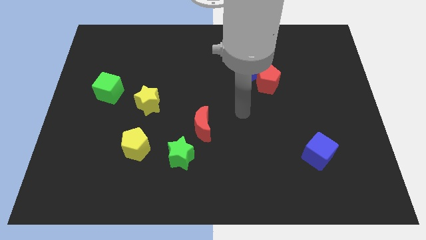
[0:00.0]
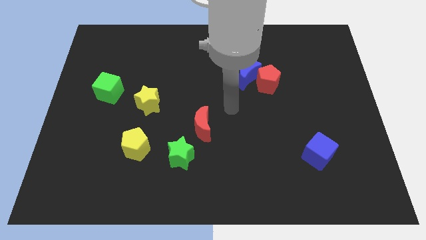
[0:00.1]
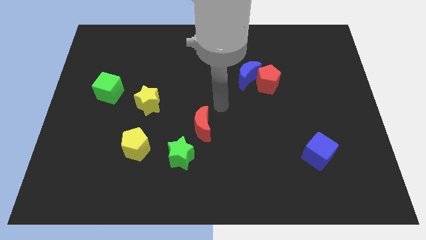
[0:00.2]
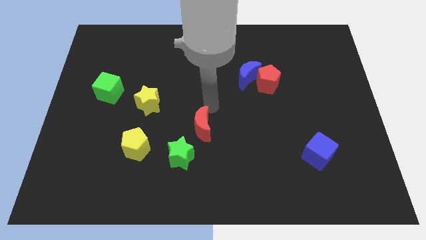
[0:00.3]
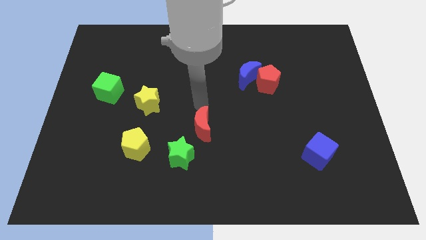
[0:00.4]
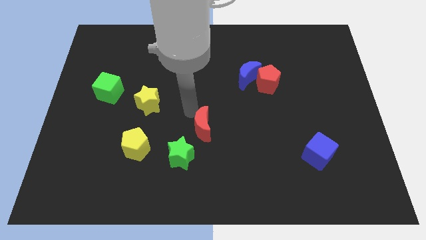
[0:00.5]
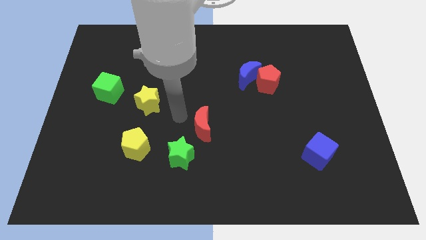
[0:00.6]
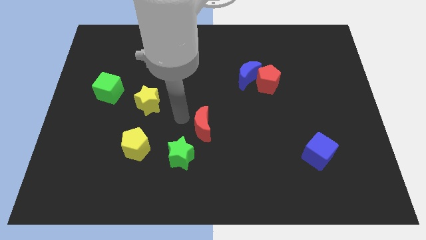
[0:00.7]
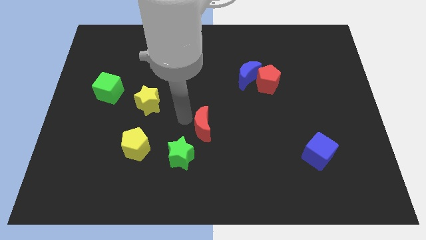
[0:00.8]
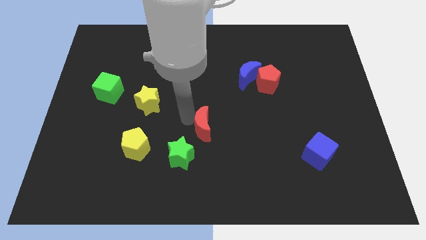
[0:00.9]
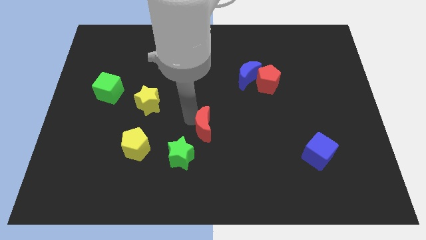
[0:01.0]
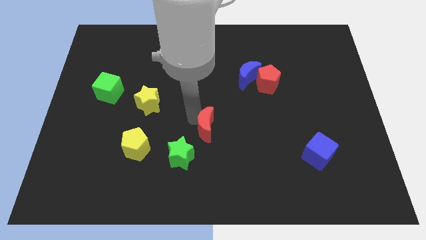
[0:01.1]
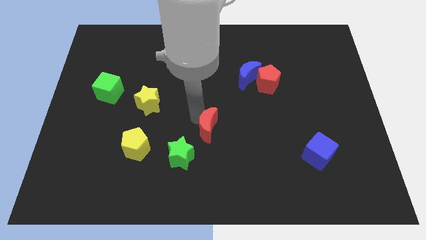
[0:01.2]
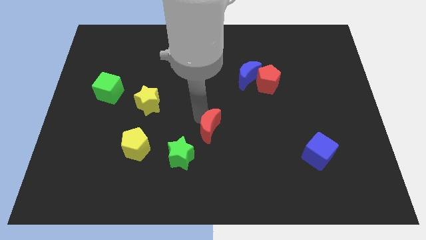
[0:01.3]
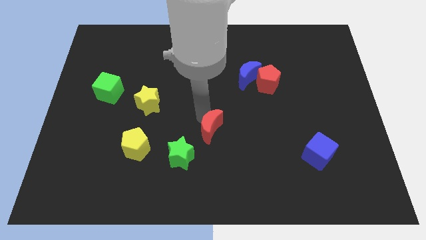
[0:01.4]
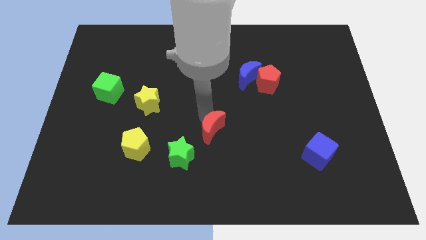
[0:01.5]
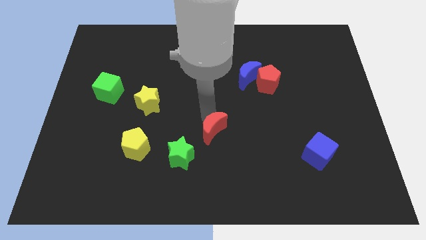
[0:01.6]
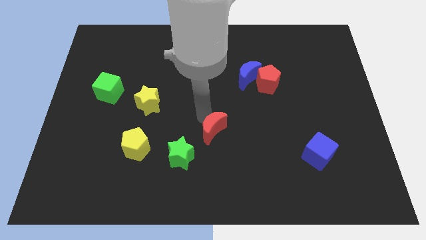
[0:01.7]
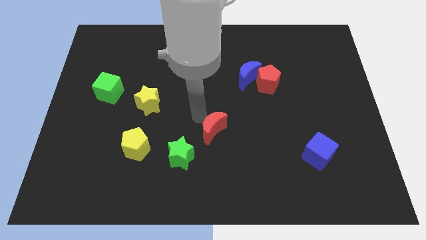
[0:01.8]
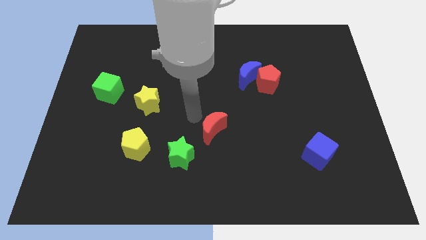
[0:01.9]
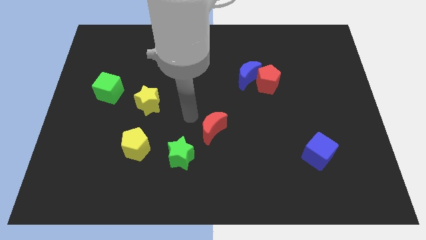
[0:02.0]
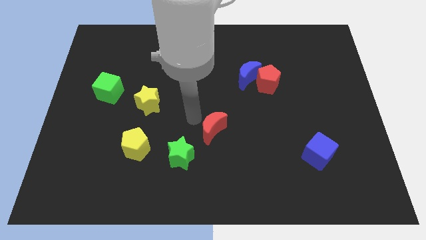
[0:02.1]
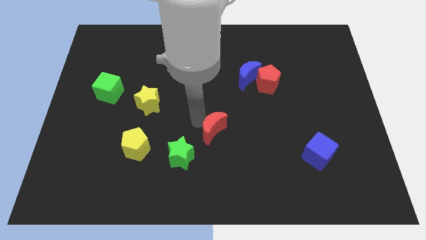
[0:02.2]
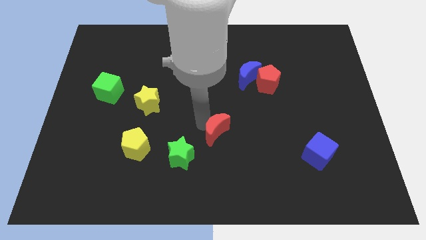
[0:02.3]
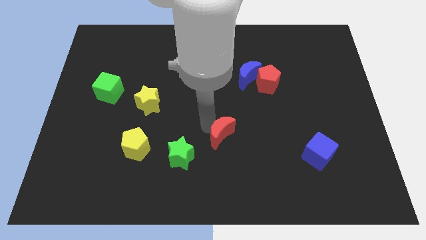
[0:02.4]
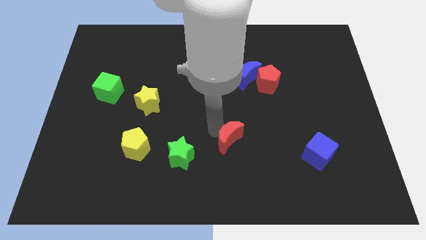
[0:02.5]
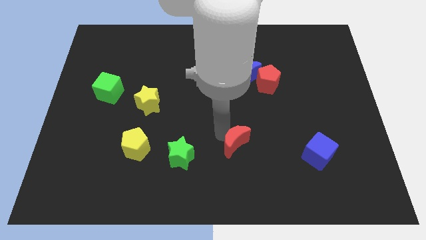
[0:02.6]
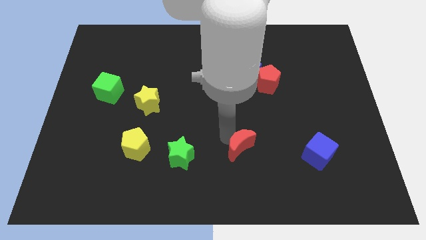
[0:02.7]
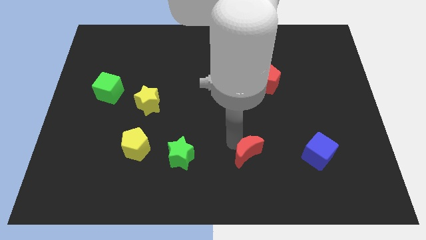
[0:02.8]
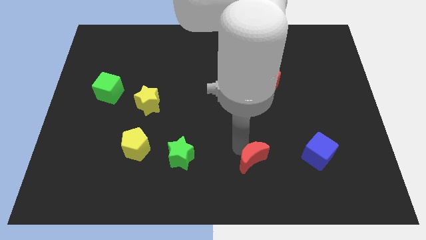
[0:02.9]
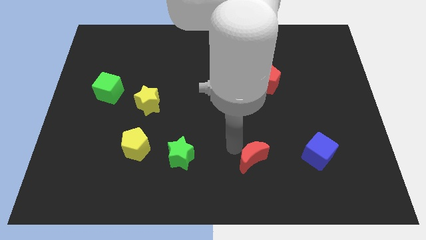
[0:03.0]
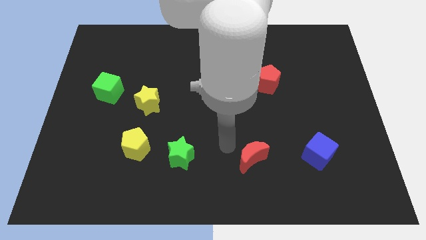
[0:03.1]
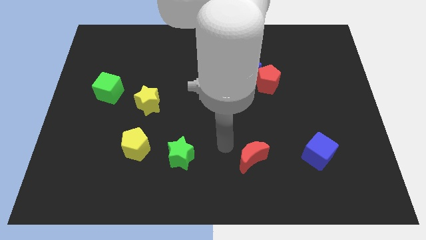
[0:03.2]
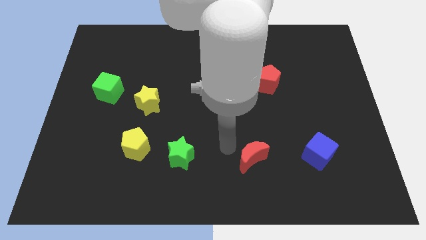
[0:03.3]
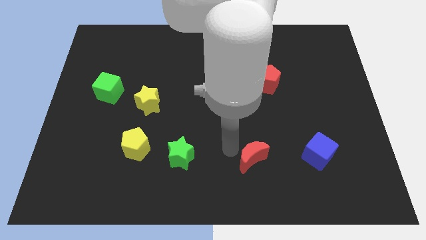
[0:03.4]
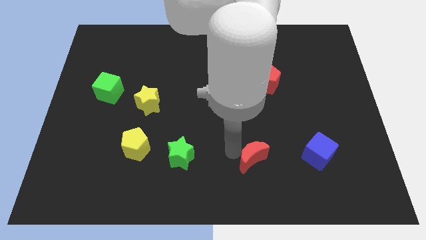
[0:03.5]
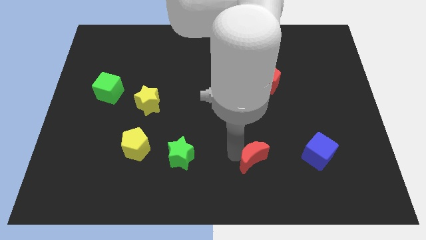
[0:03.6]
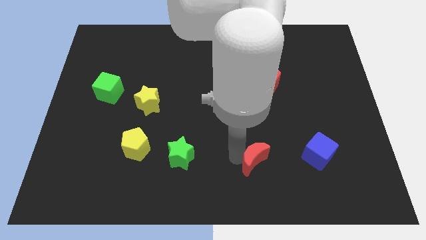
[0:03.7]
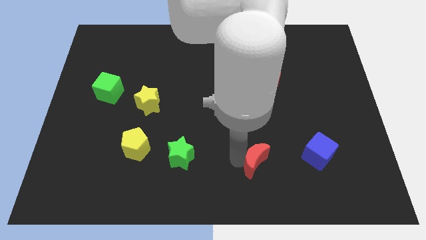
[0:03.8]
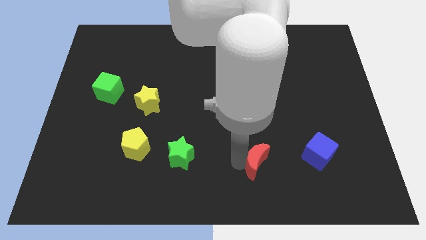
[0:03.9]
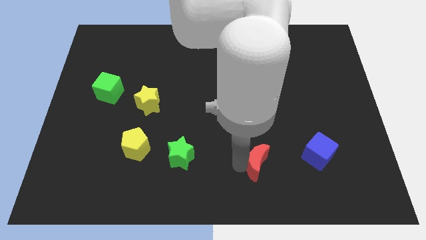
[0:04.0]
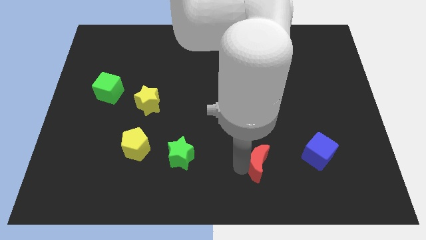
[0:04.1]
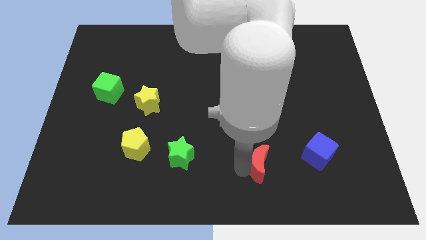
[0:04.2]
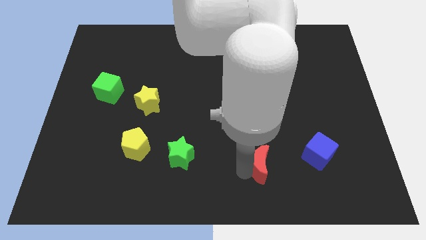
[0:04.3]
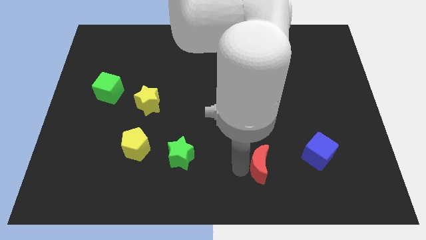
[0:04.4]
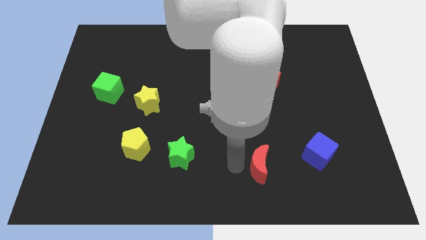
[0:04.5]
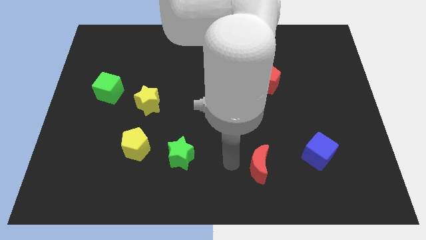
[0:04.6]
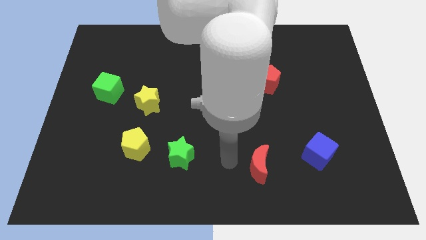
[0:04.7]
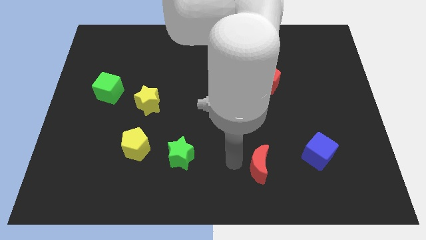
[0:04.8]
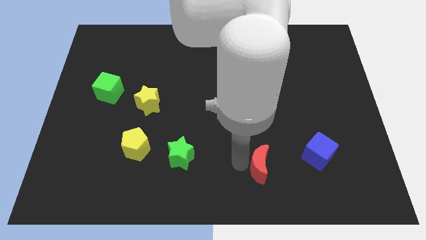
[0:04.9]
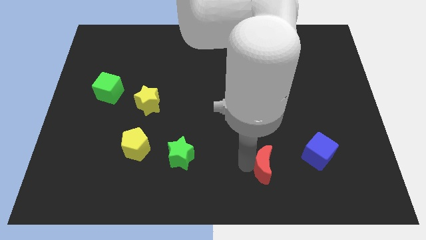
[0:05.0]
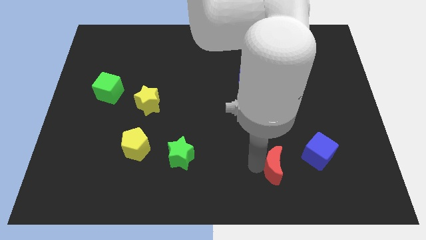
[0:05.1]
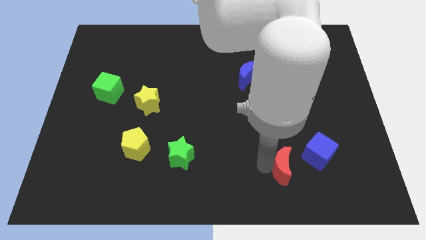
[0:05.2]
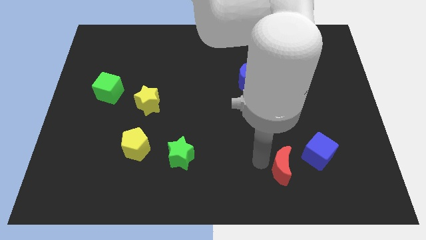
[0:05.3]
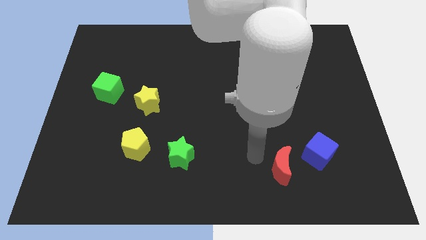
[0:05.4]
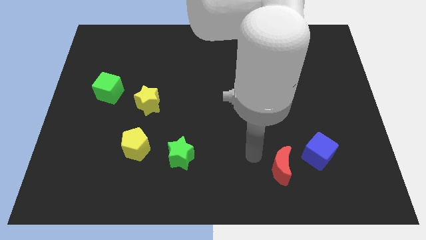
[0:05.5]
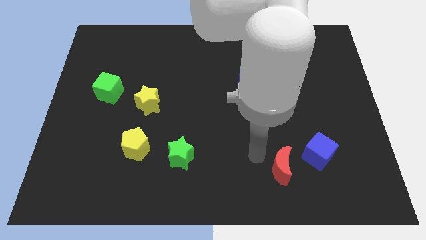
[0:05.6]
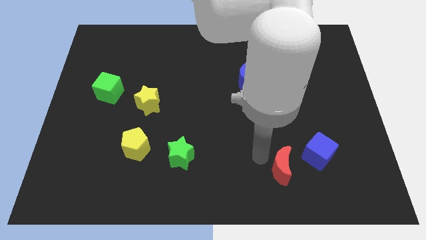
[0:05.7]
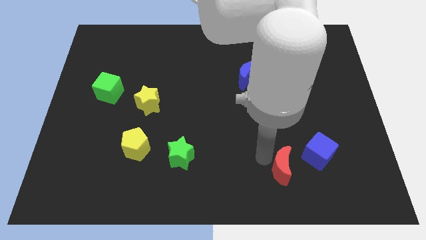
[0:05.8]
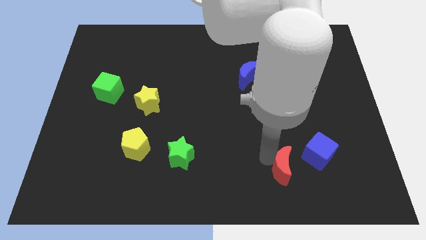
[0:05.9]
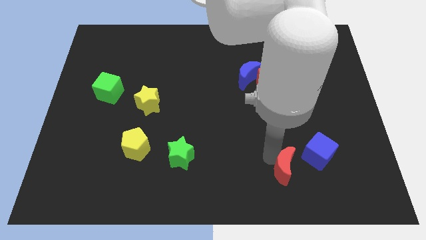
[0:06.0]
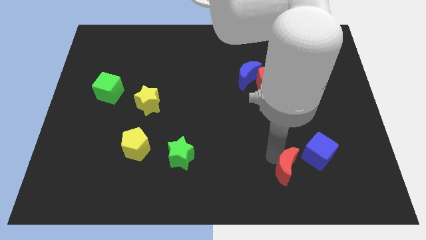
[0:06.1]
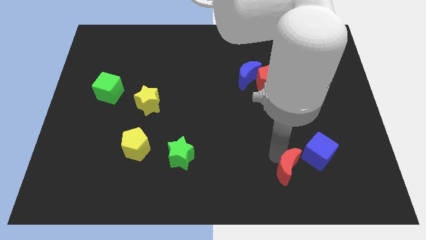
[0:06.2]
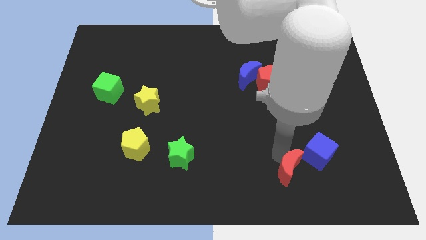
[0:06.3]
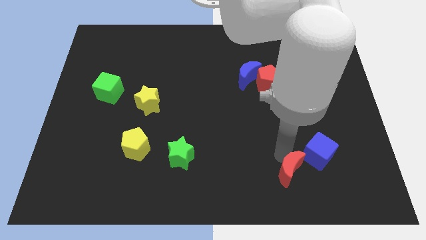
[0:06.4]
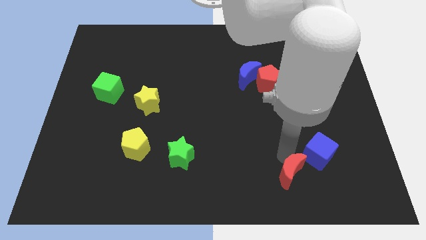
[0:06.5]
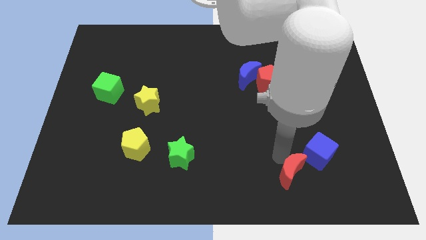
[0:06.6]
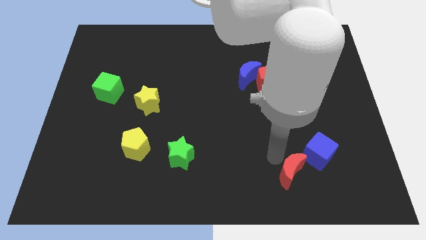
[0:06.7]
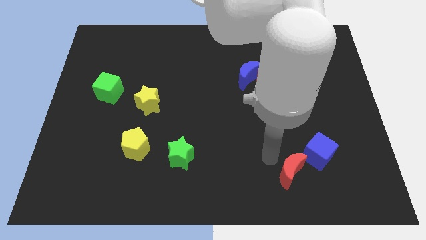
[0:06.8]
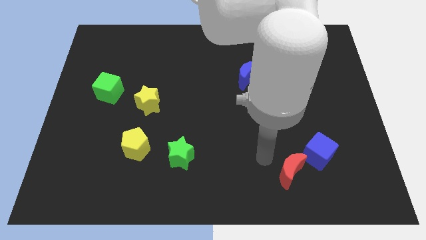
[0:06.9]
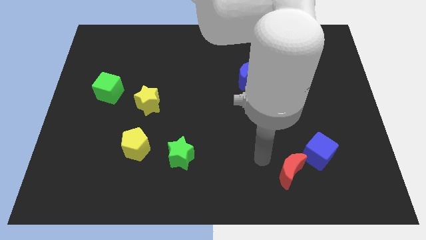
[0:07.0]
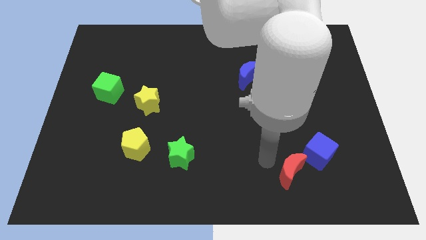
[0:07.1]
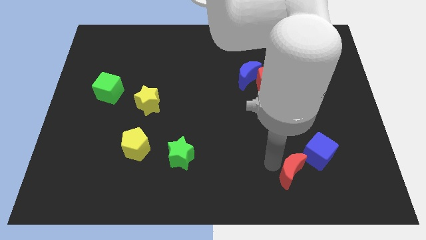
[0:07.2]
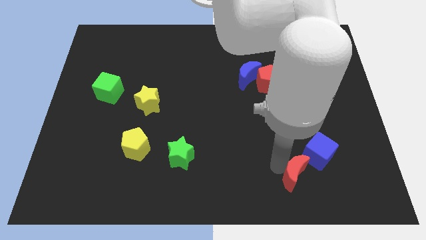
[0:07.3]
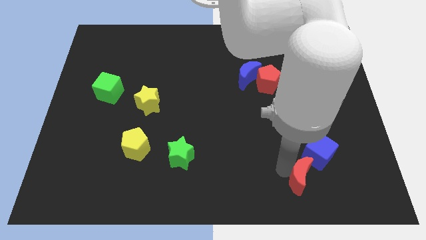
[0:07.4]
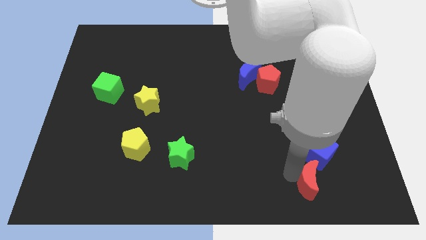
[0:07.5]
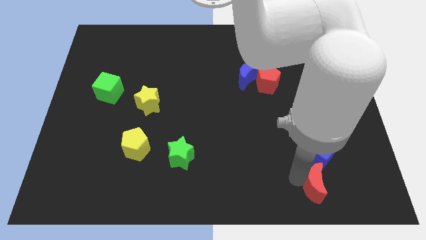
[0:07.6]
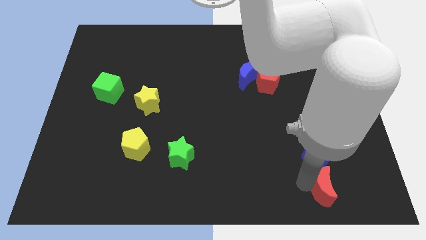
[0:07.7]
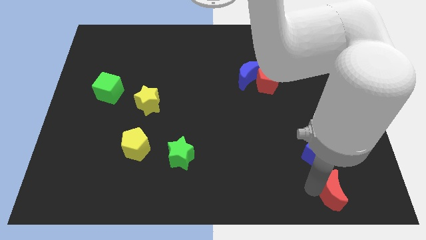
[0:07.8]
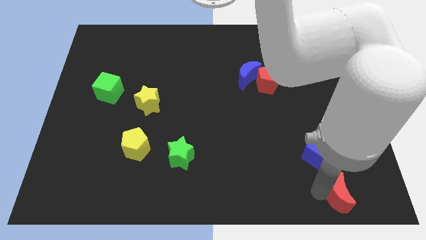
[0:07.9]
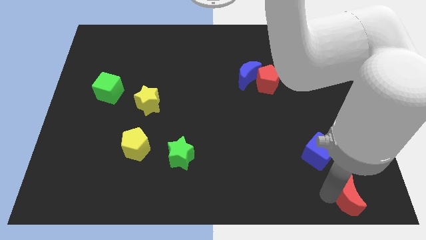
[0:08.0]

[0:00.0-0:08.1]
slide the red moon to the lower right corner
